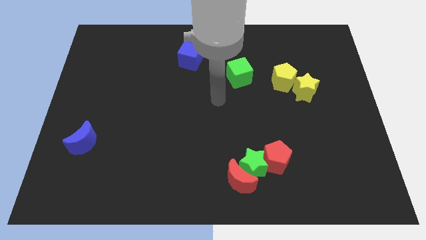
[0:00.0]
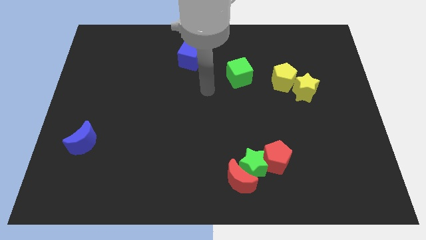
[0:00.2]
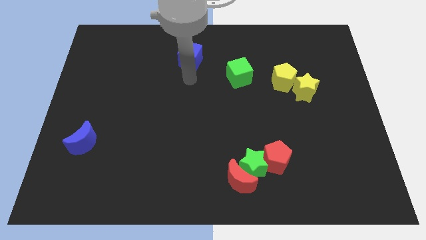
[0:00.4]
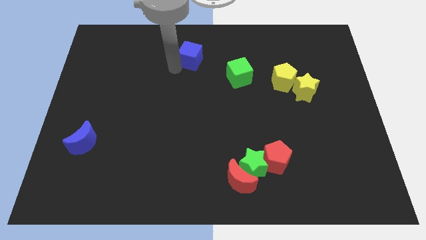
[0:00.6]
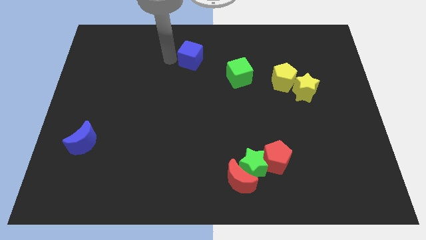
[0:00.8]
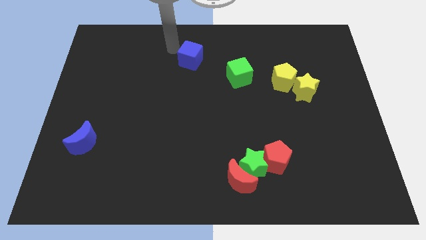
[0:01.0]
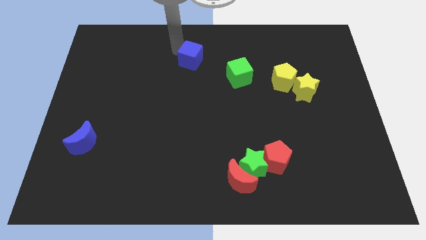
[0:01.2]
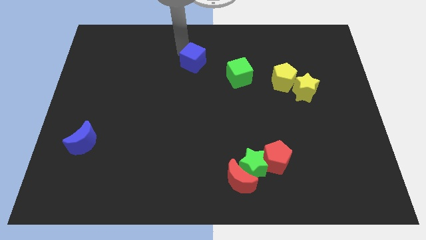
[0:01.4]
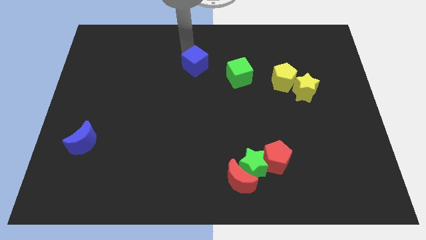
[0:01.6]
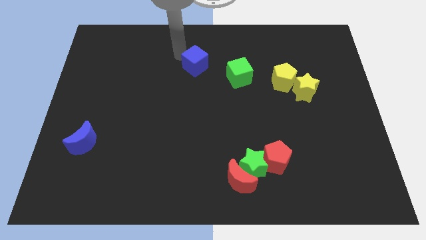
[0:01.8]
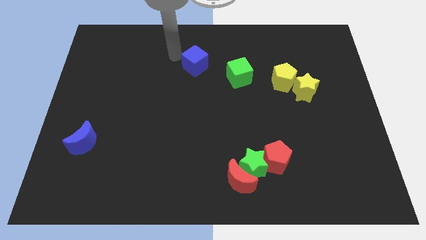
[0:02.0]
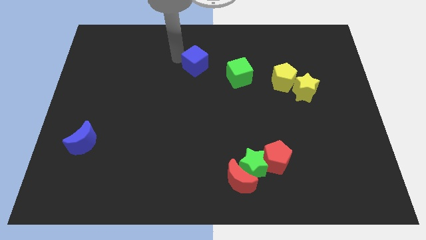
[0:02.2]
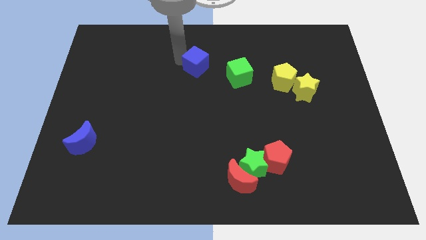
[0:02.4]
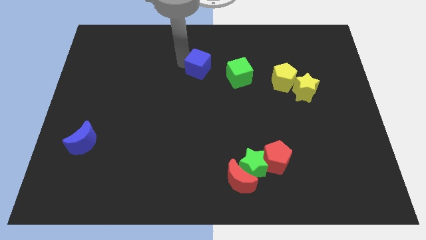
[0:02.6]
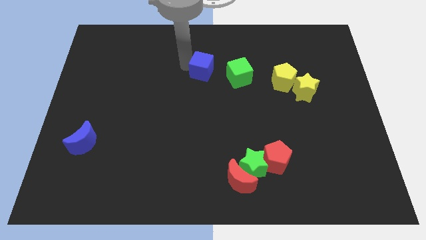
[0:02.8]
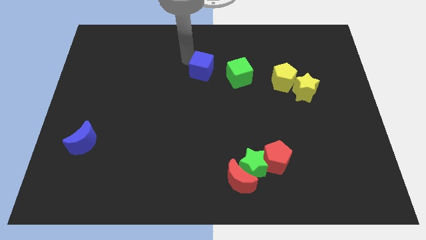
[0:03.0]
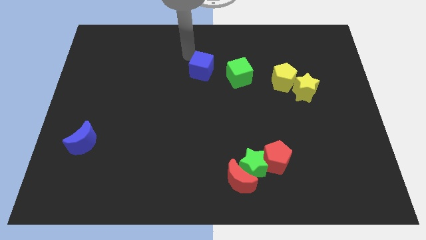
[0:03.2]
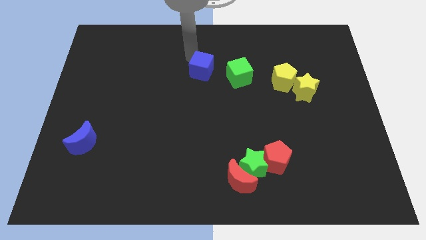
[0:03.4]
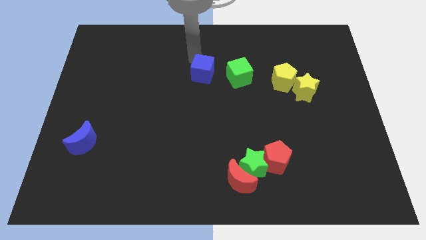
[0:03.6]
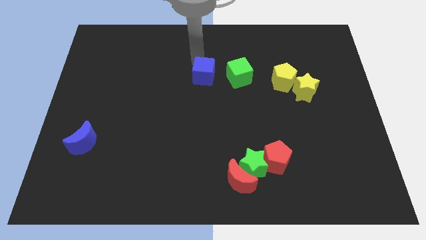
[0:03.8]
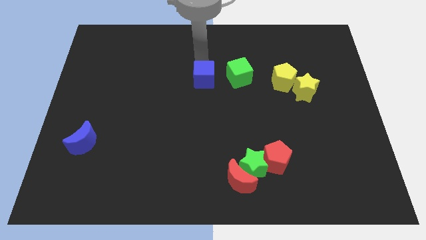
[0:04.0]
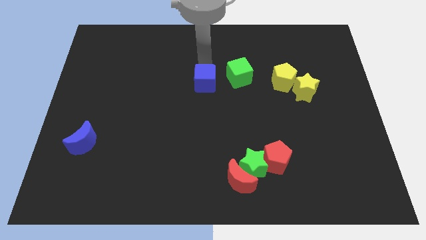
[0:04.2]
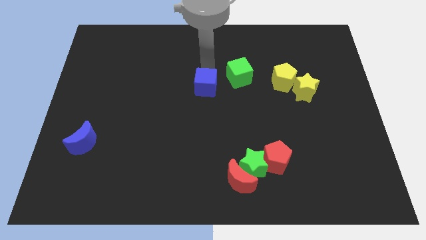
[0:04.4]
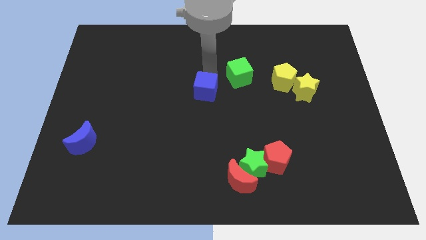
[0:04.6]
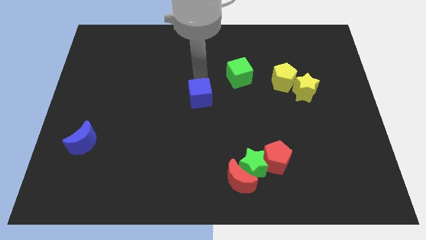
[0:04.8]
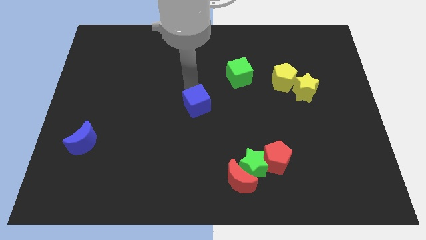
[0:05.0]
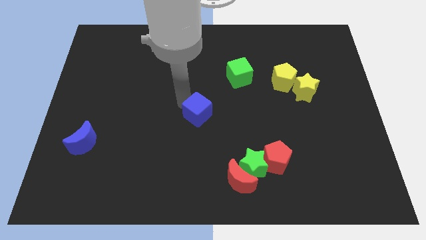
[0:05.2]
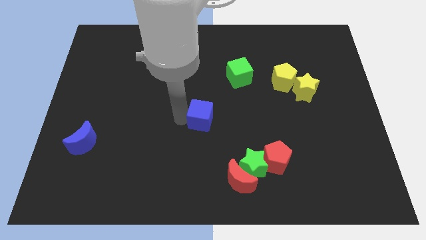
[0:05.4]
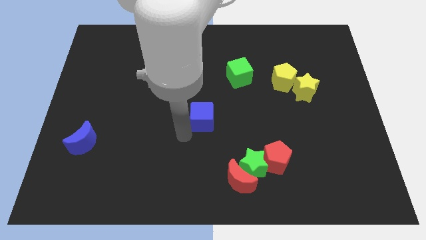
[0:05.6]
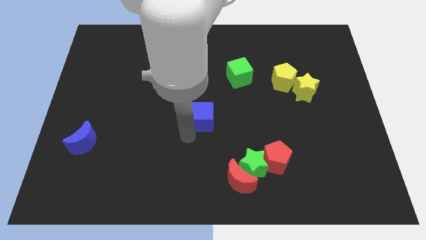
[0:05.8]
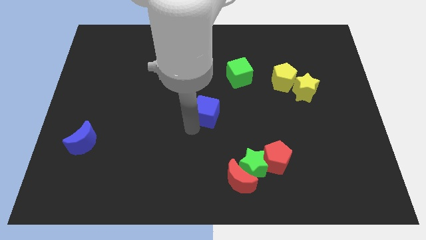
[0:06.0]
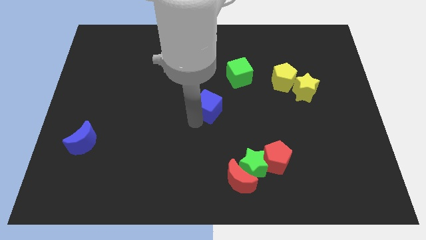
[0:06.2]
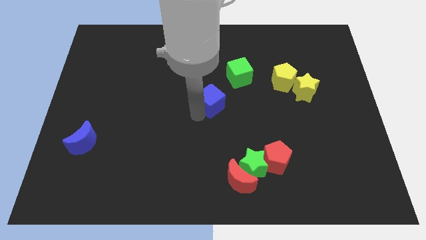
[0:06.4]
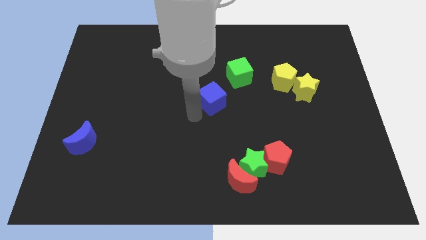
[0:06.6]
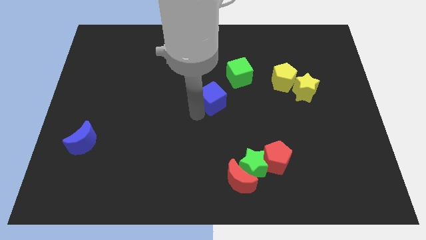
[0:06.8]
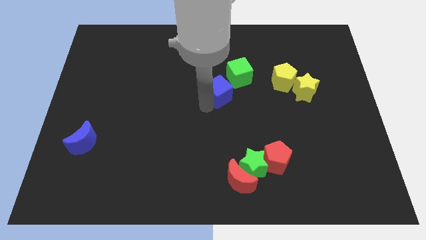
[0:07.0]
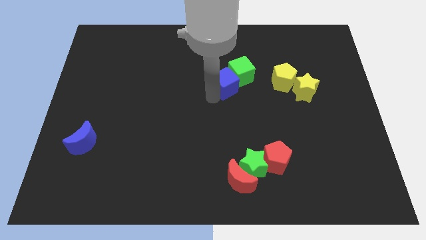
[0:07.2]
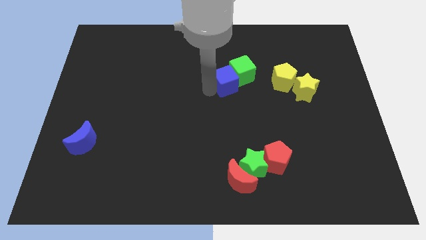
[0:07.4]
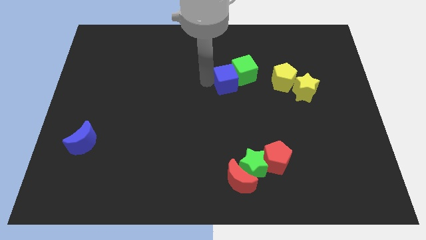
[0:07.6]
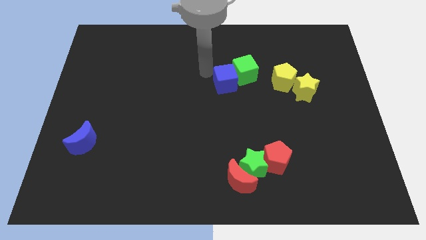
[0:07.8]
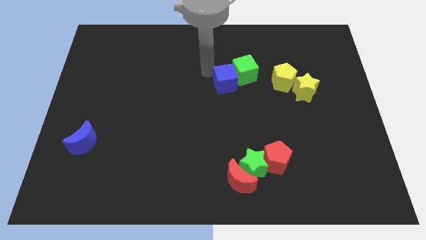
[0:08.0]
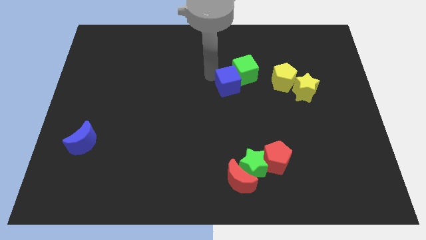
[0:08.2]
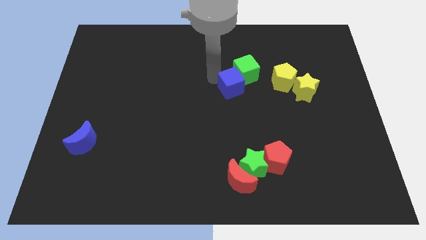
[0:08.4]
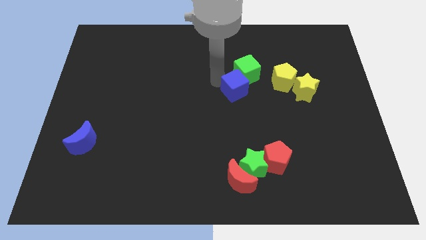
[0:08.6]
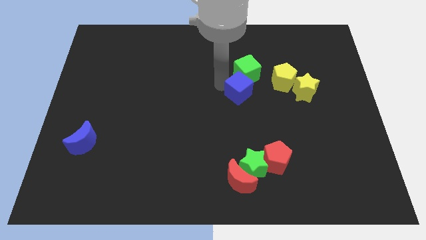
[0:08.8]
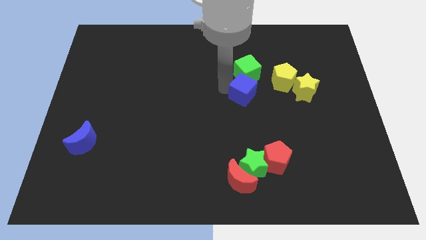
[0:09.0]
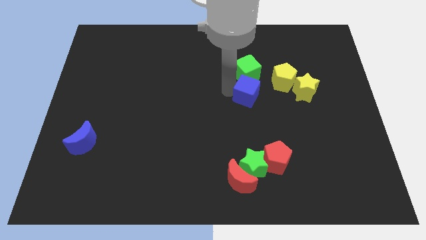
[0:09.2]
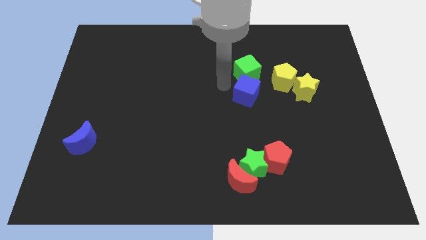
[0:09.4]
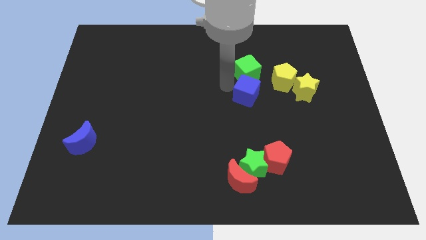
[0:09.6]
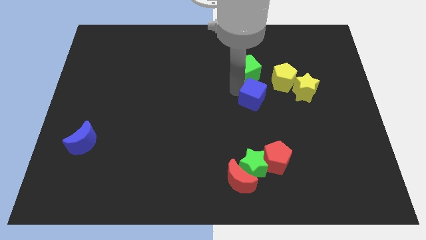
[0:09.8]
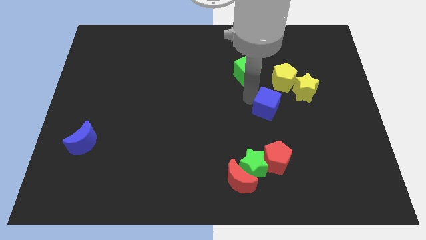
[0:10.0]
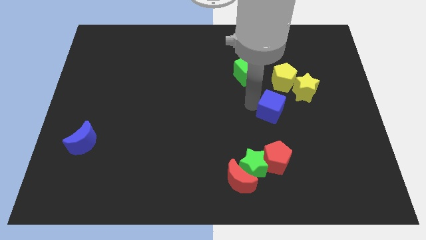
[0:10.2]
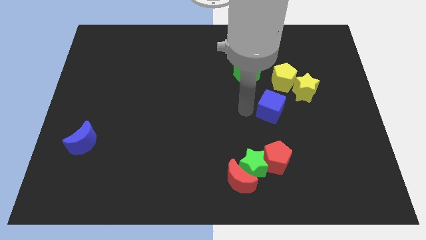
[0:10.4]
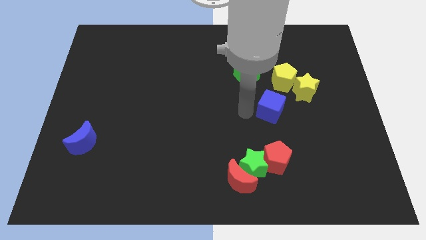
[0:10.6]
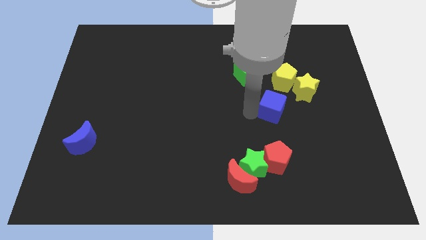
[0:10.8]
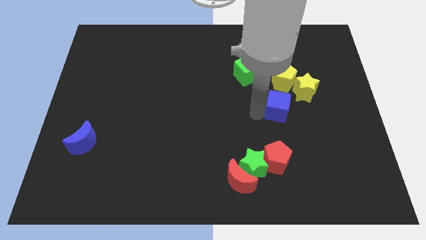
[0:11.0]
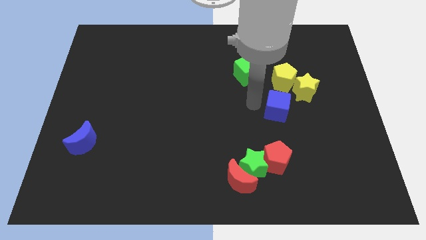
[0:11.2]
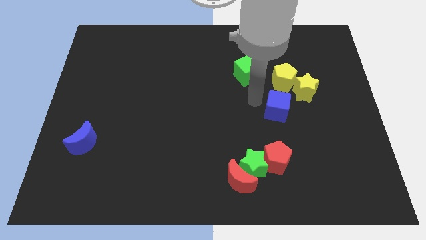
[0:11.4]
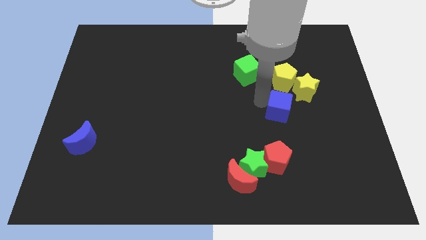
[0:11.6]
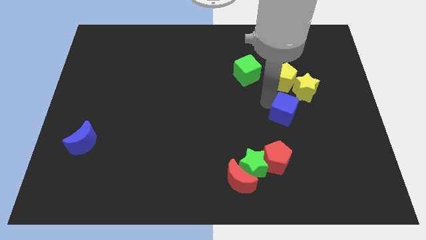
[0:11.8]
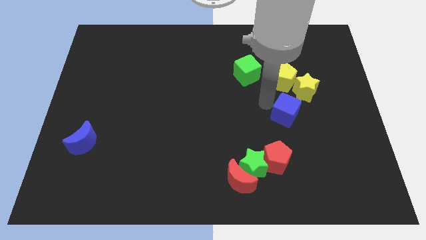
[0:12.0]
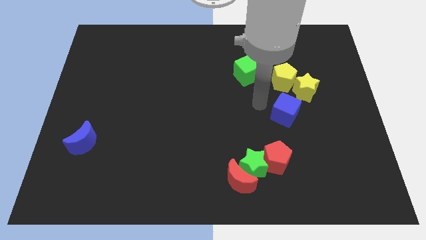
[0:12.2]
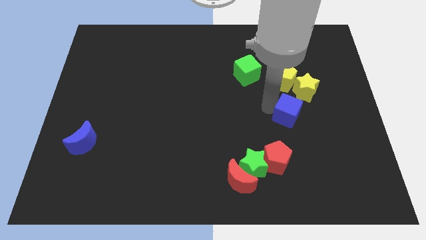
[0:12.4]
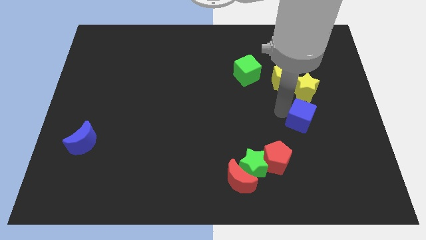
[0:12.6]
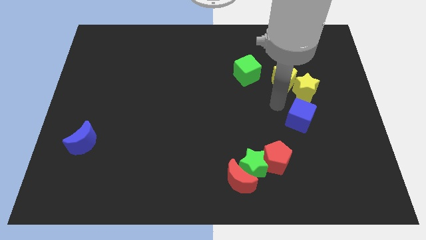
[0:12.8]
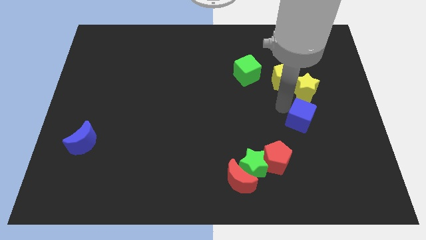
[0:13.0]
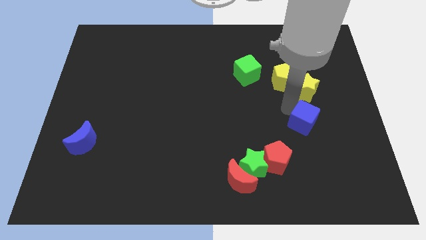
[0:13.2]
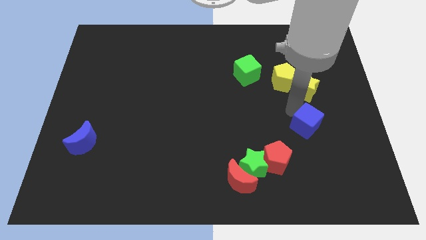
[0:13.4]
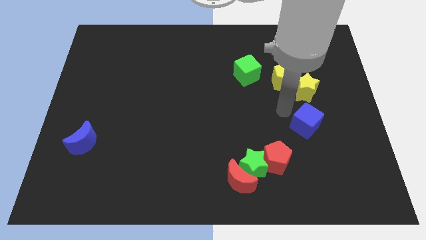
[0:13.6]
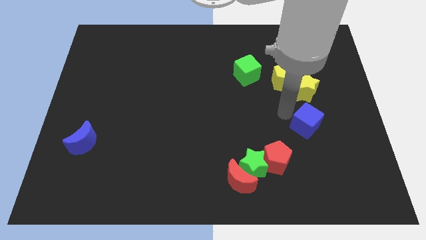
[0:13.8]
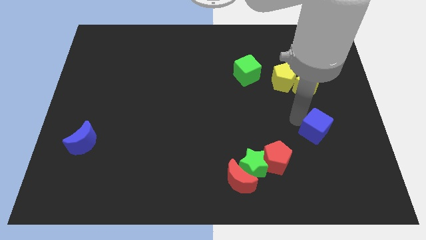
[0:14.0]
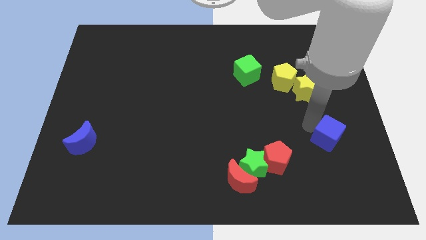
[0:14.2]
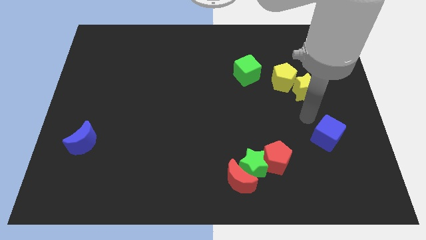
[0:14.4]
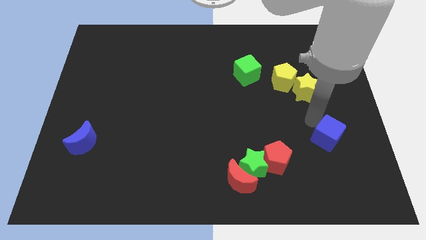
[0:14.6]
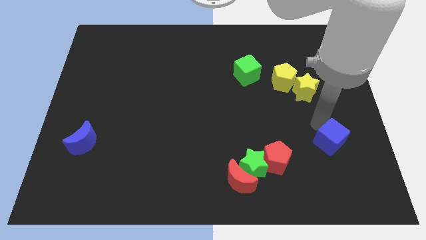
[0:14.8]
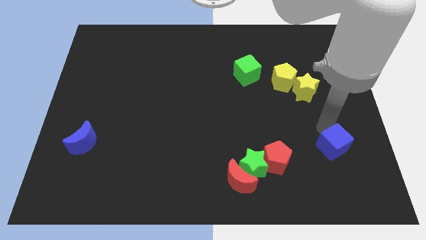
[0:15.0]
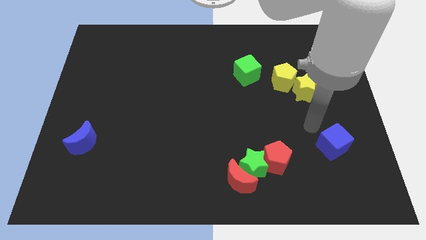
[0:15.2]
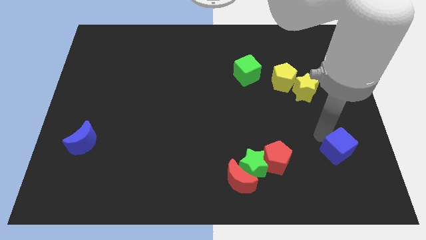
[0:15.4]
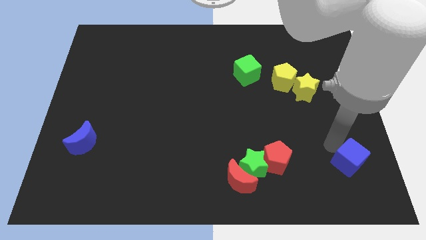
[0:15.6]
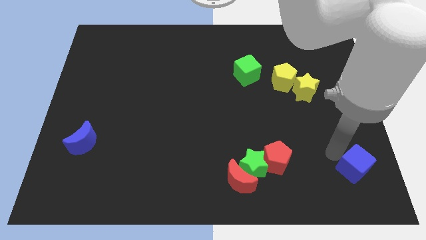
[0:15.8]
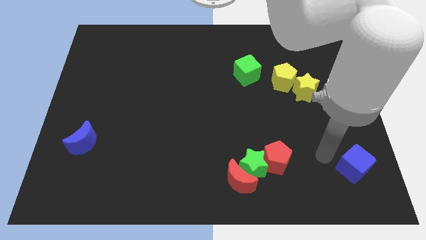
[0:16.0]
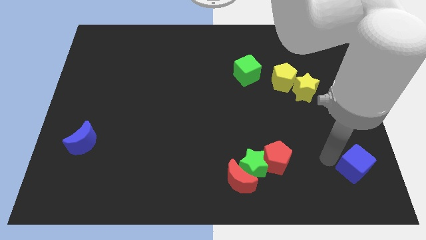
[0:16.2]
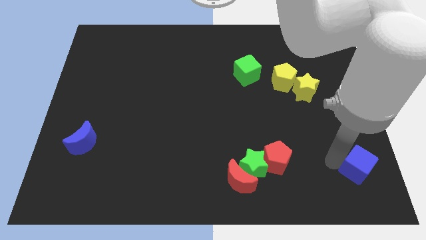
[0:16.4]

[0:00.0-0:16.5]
push the blue cube to the bottom right
